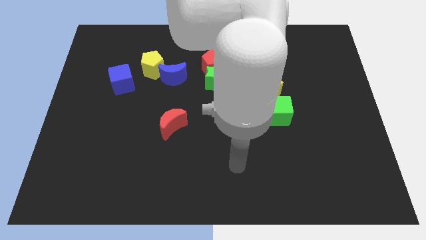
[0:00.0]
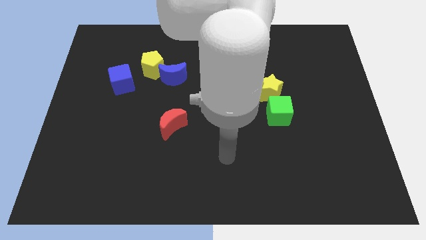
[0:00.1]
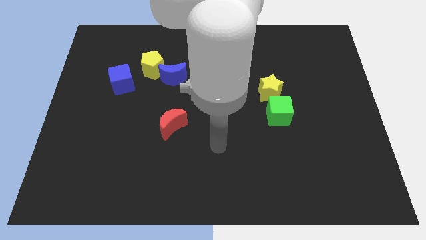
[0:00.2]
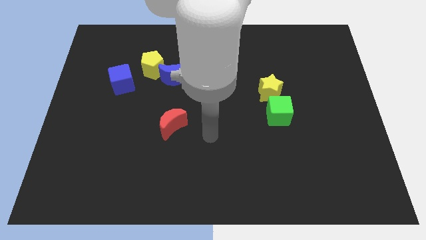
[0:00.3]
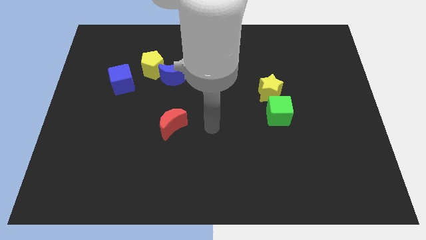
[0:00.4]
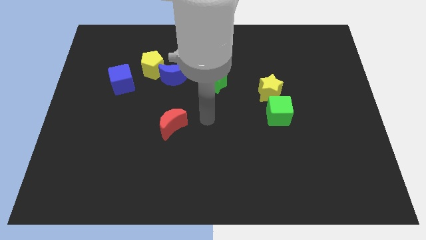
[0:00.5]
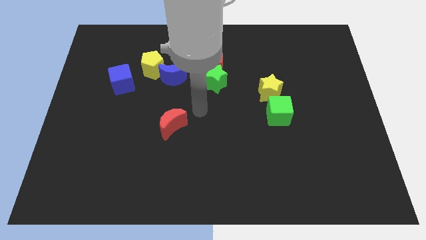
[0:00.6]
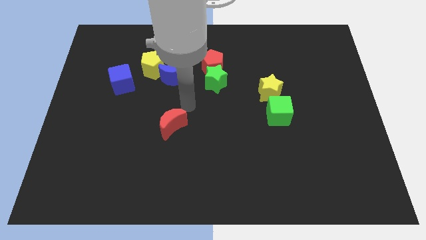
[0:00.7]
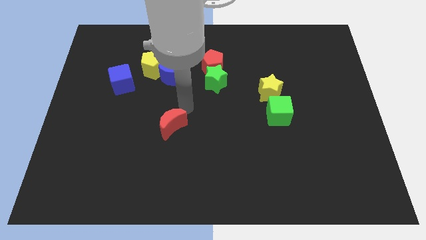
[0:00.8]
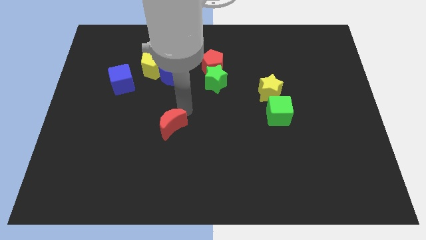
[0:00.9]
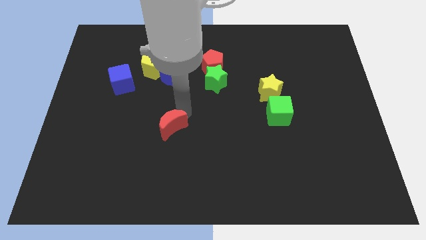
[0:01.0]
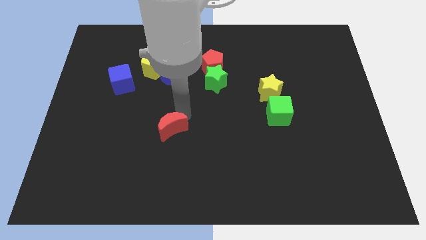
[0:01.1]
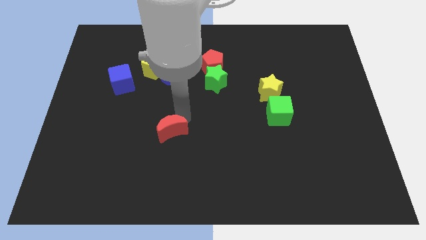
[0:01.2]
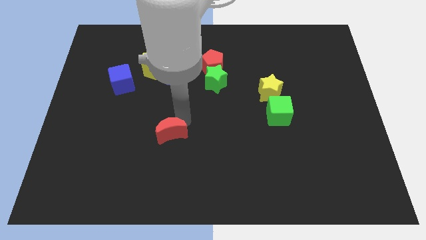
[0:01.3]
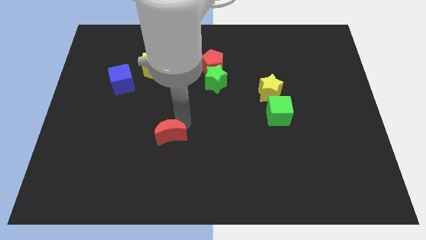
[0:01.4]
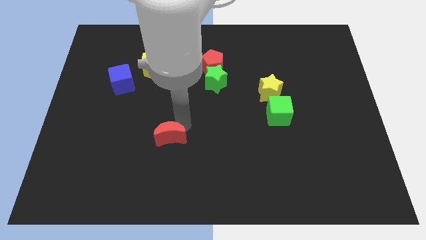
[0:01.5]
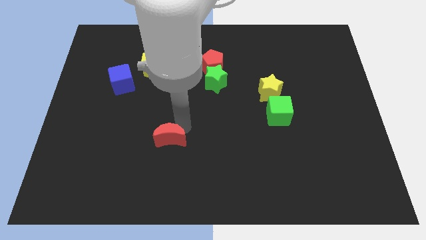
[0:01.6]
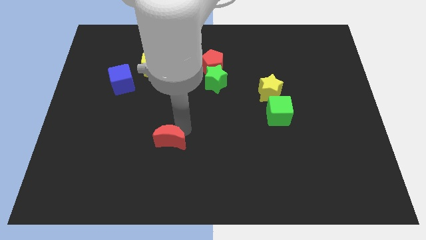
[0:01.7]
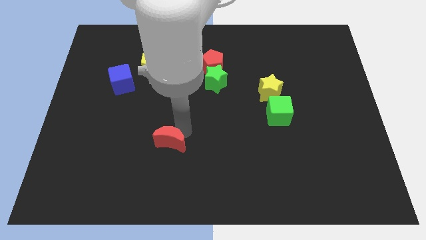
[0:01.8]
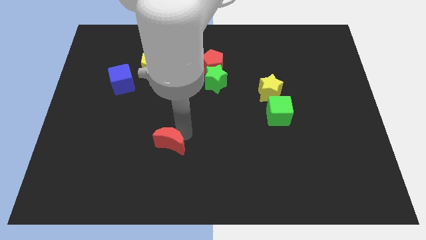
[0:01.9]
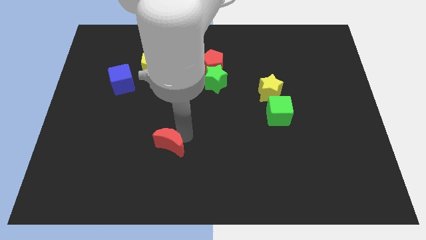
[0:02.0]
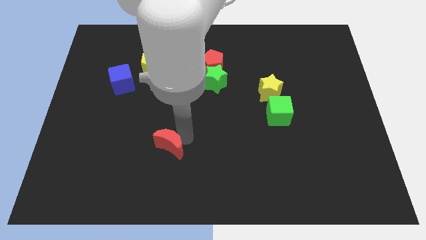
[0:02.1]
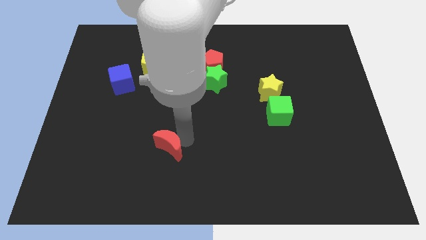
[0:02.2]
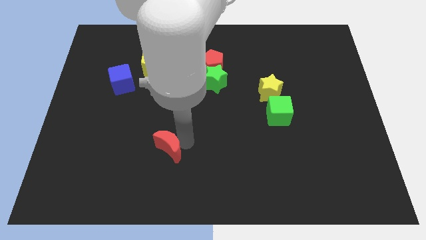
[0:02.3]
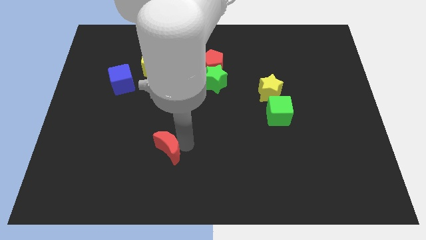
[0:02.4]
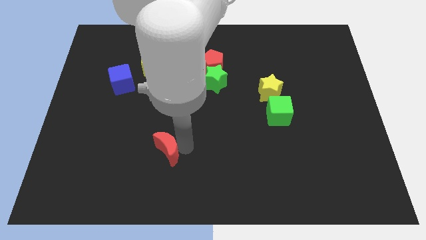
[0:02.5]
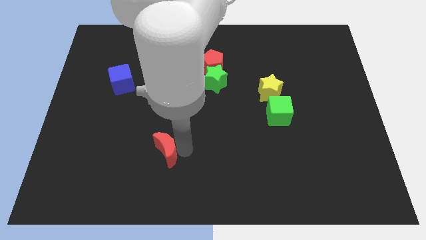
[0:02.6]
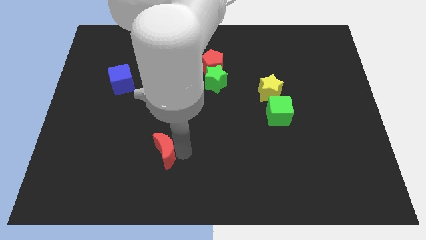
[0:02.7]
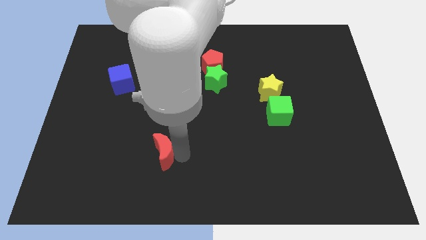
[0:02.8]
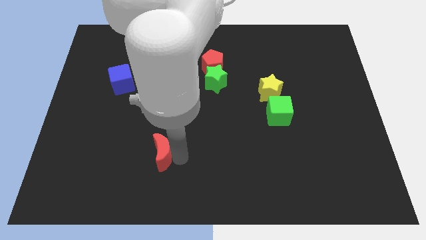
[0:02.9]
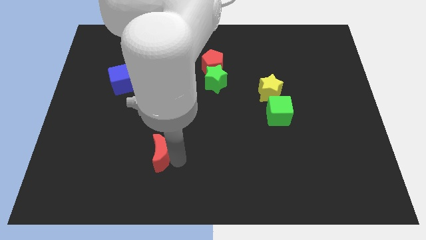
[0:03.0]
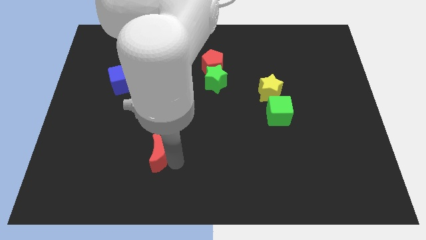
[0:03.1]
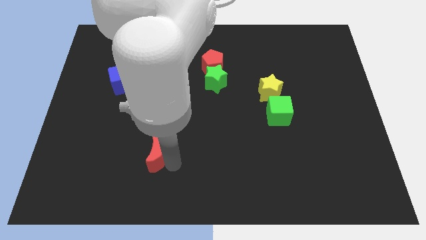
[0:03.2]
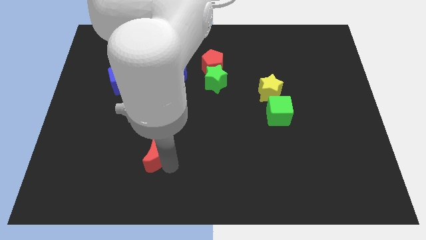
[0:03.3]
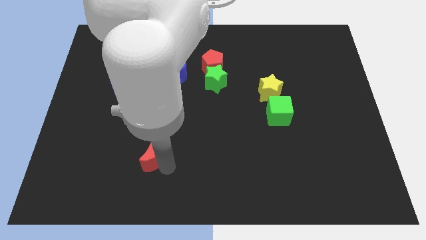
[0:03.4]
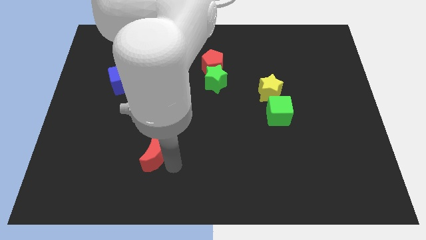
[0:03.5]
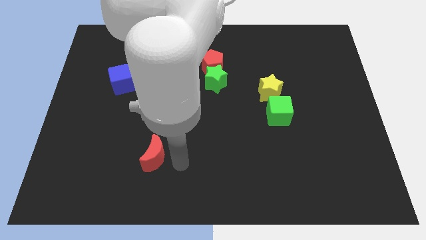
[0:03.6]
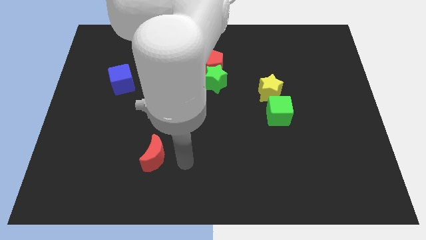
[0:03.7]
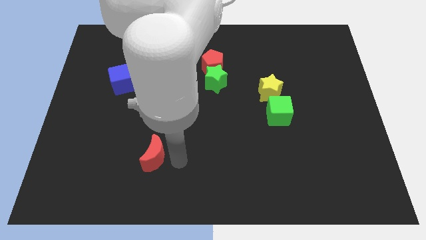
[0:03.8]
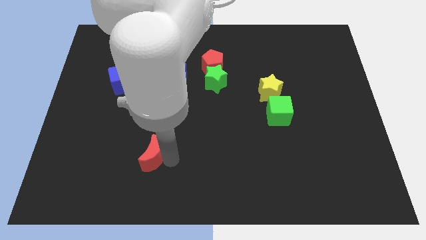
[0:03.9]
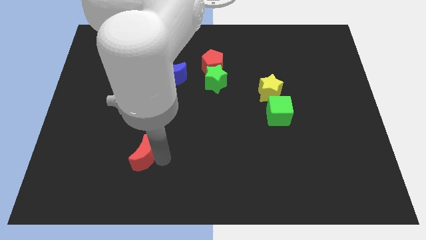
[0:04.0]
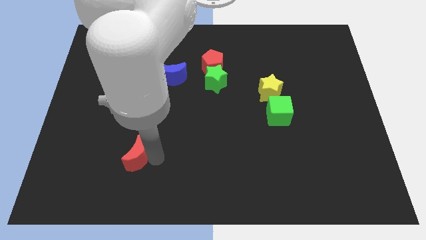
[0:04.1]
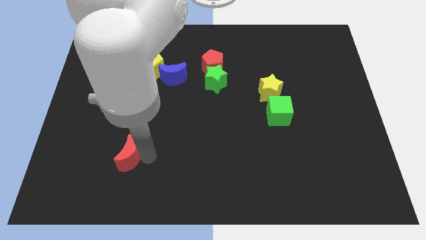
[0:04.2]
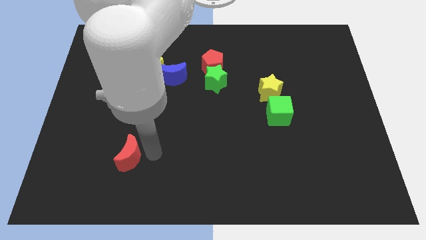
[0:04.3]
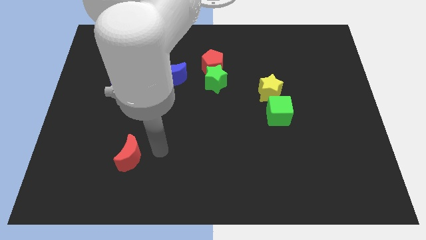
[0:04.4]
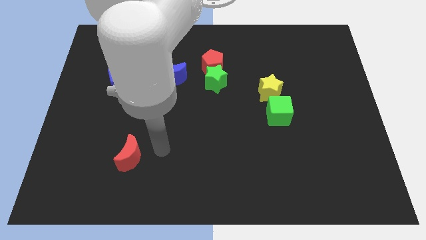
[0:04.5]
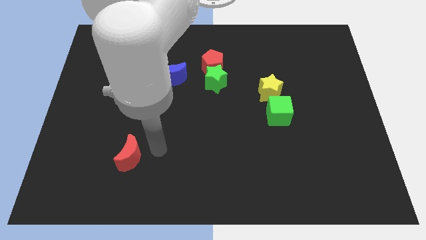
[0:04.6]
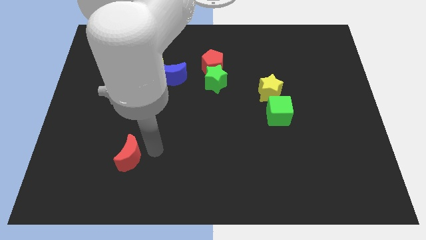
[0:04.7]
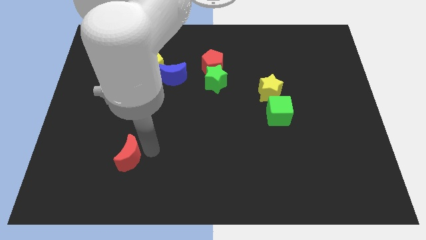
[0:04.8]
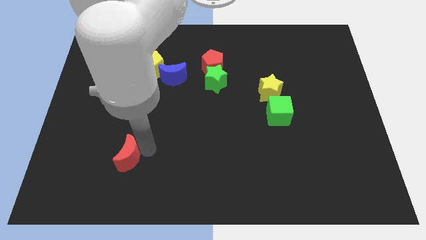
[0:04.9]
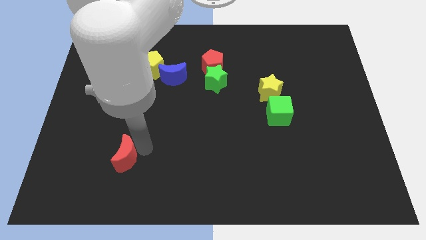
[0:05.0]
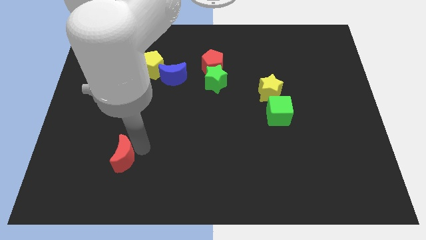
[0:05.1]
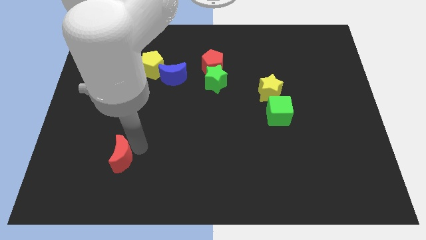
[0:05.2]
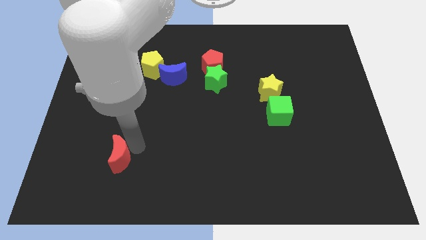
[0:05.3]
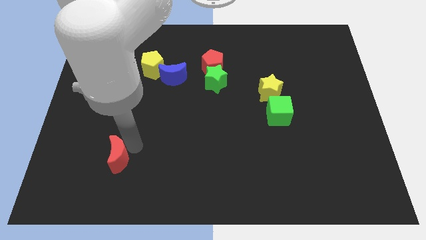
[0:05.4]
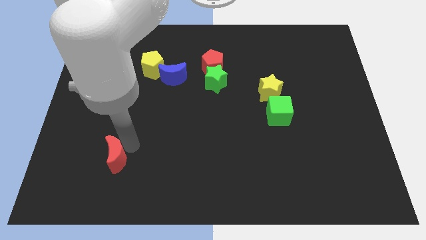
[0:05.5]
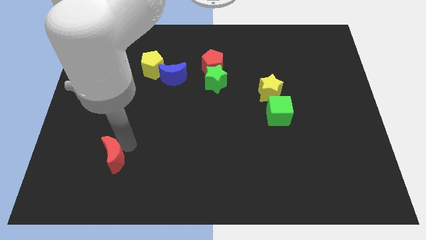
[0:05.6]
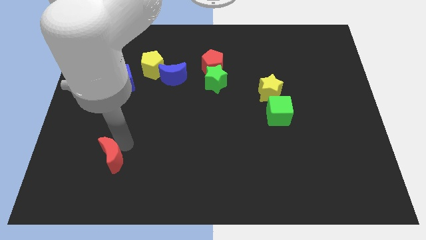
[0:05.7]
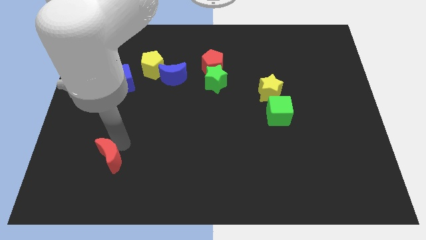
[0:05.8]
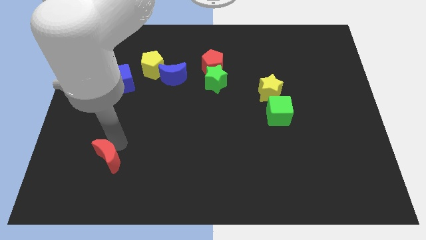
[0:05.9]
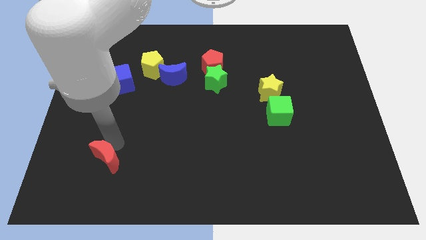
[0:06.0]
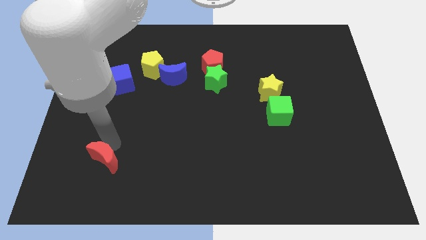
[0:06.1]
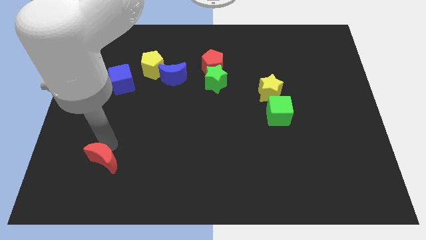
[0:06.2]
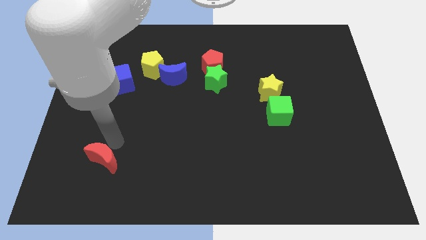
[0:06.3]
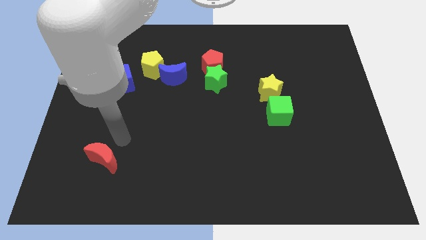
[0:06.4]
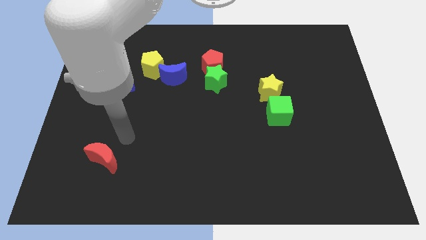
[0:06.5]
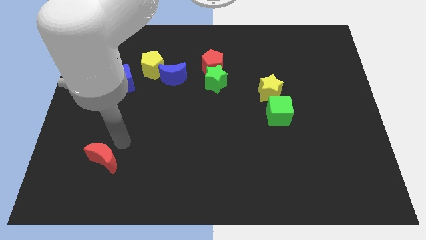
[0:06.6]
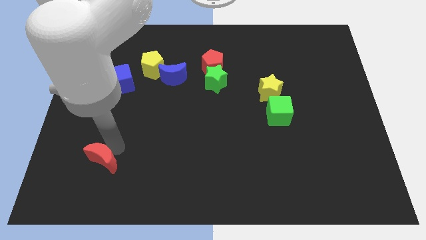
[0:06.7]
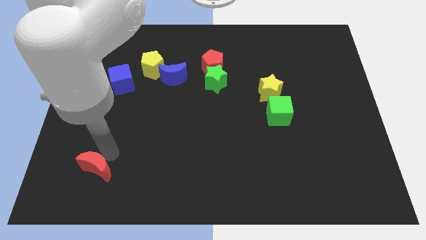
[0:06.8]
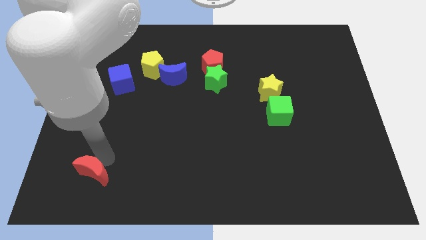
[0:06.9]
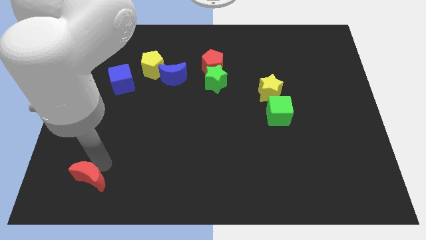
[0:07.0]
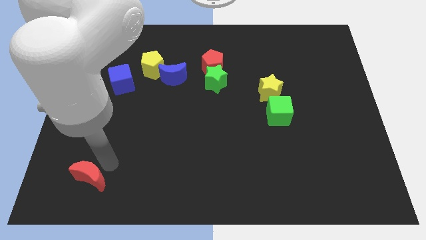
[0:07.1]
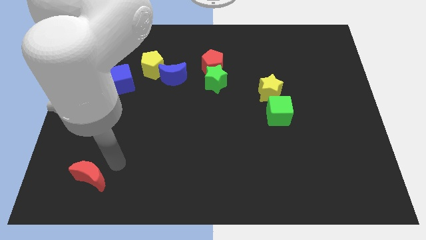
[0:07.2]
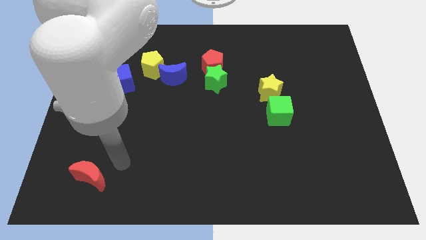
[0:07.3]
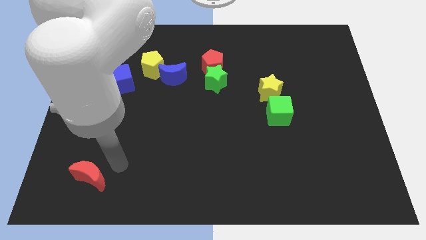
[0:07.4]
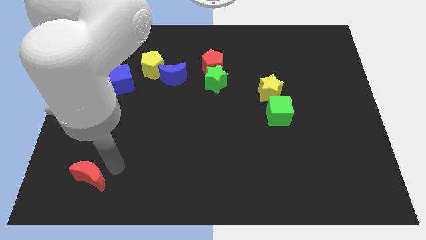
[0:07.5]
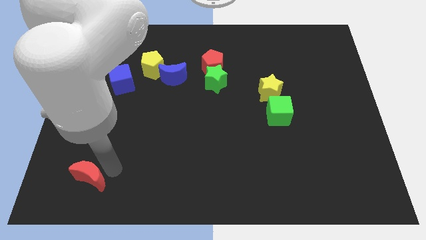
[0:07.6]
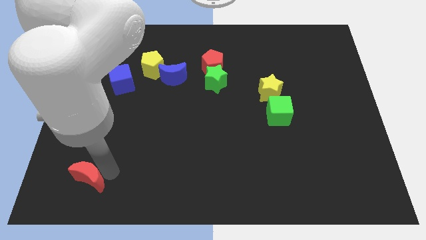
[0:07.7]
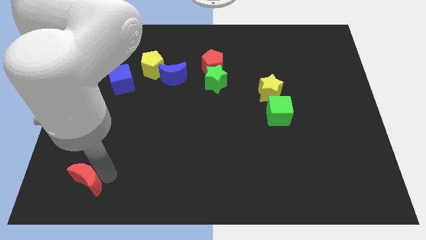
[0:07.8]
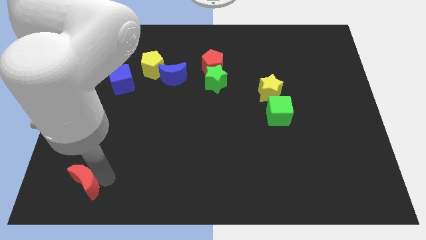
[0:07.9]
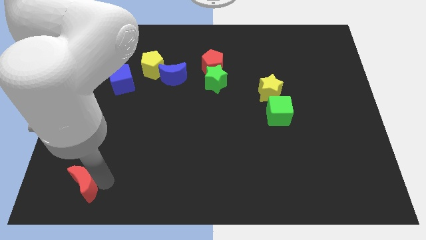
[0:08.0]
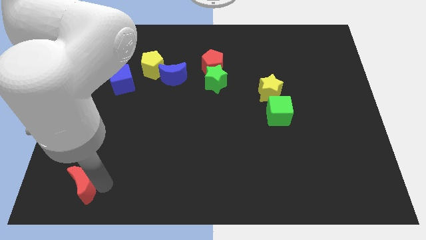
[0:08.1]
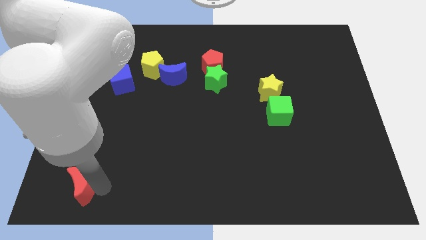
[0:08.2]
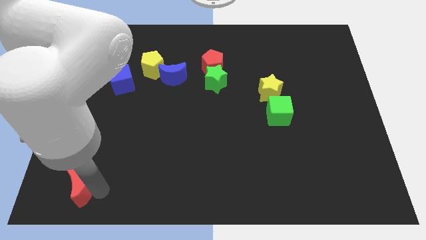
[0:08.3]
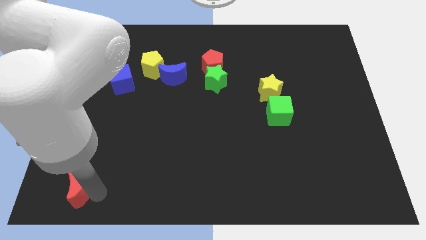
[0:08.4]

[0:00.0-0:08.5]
slide the red moon to the lower left corner
